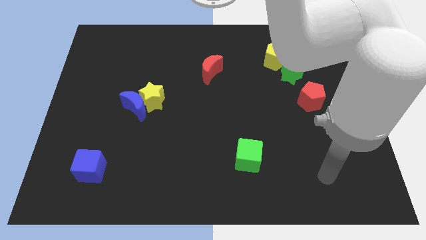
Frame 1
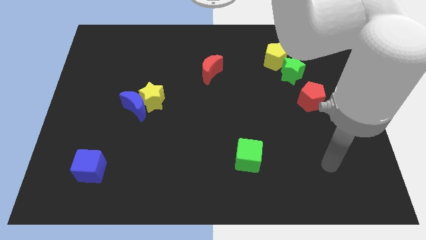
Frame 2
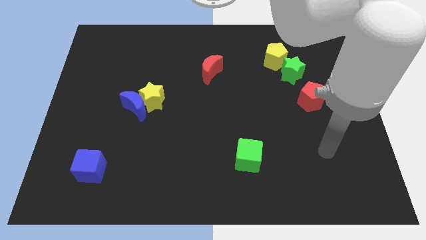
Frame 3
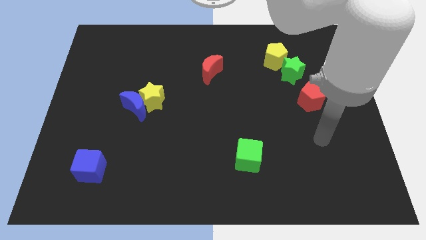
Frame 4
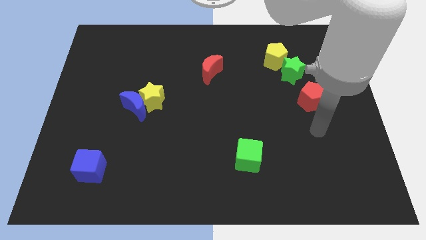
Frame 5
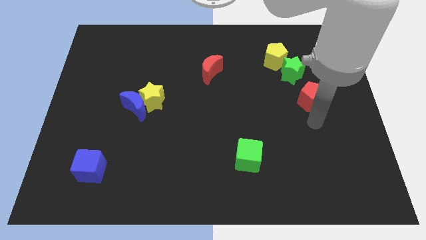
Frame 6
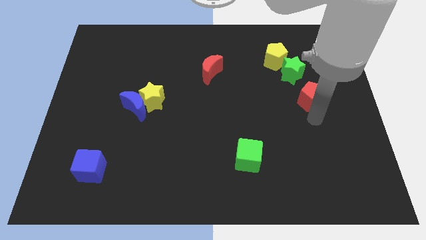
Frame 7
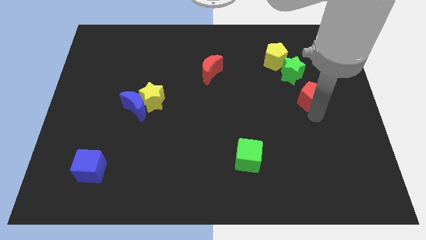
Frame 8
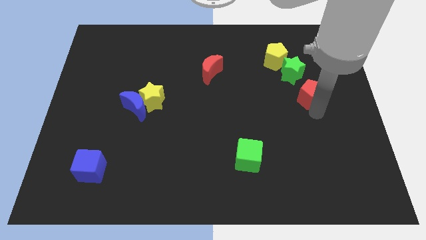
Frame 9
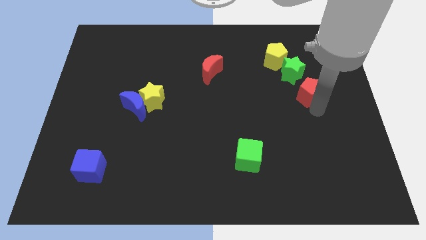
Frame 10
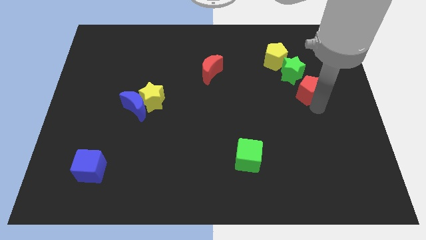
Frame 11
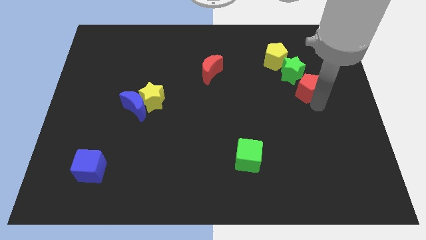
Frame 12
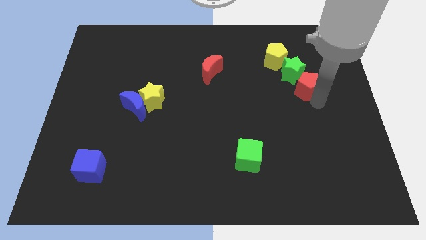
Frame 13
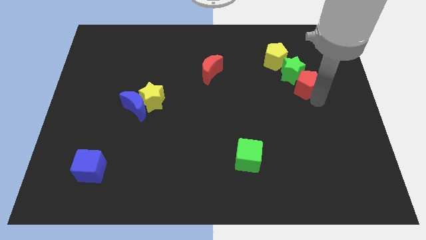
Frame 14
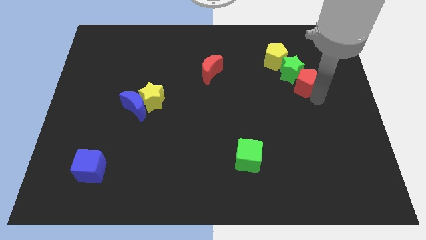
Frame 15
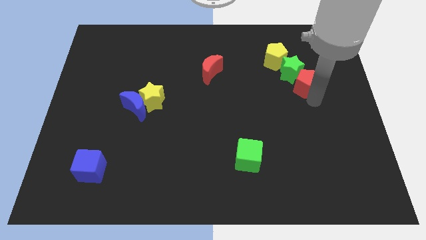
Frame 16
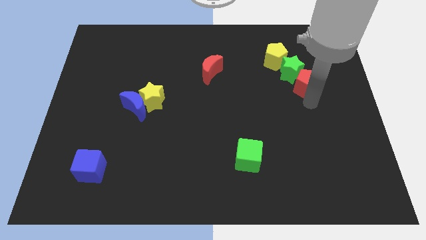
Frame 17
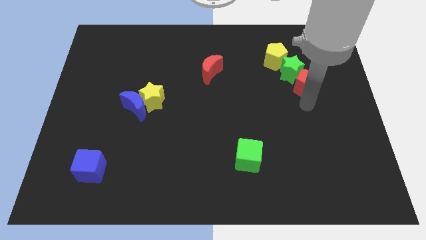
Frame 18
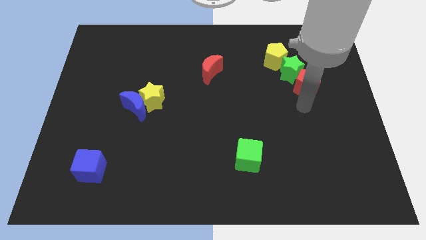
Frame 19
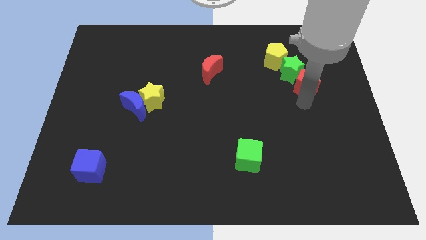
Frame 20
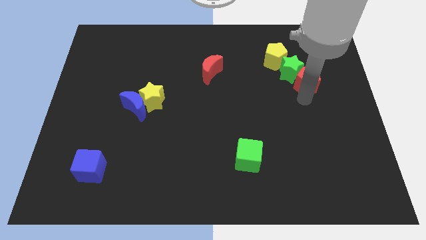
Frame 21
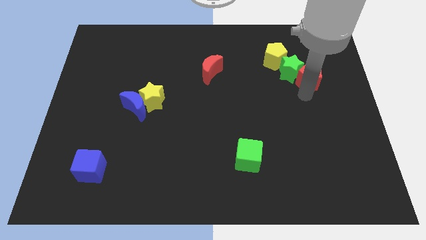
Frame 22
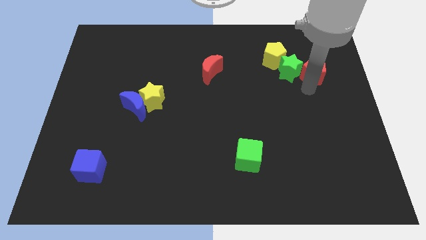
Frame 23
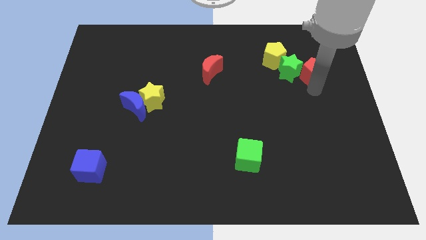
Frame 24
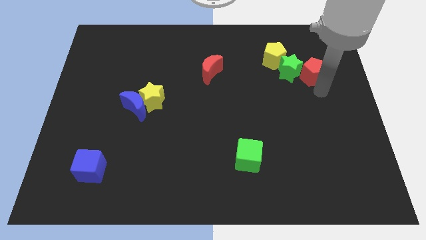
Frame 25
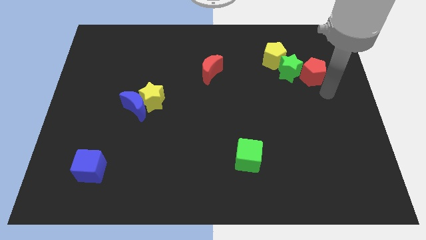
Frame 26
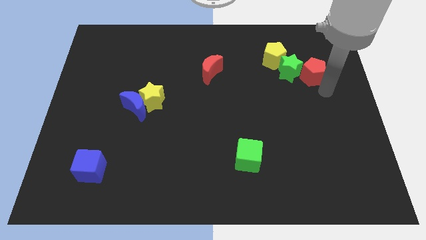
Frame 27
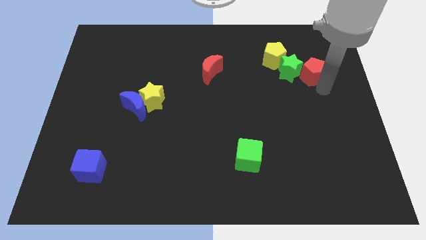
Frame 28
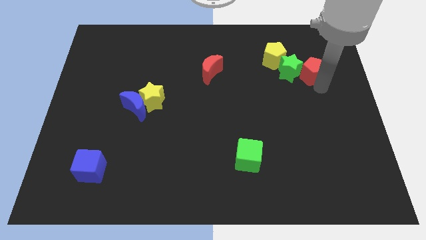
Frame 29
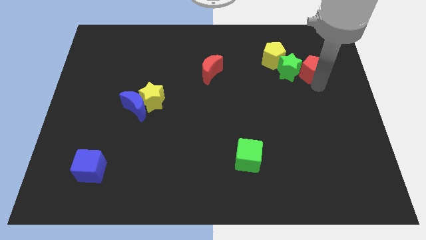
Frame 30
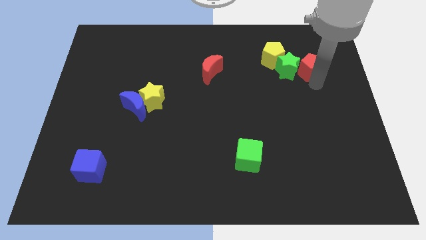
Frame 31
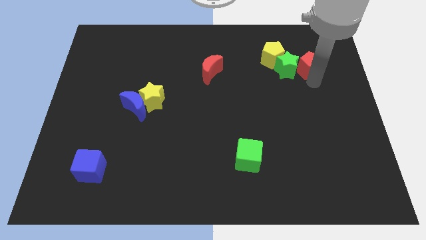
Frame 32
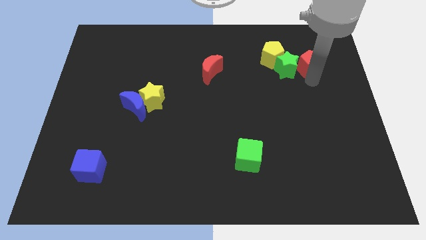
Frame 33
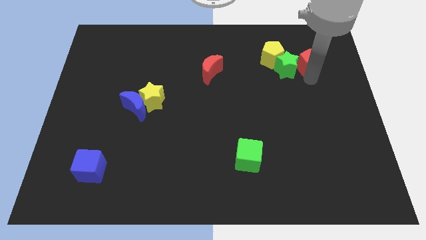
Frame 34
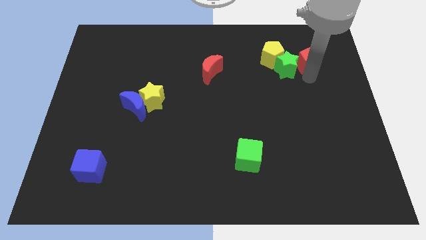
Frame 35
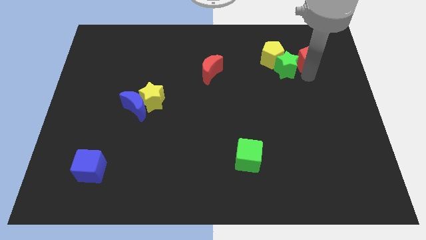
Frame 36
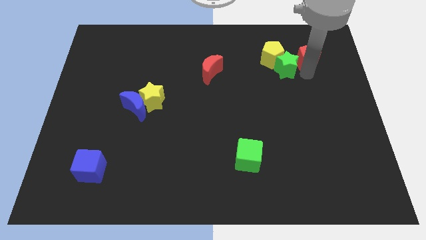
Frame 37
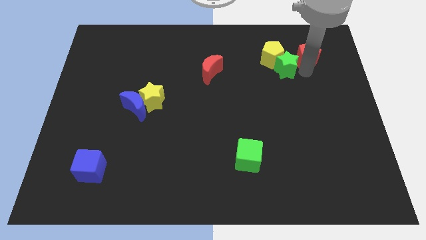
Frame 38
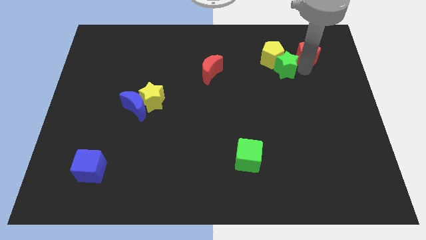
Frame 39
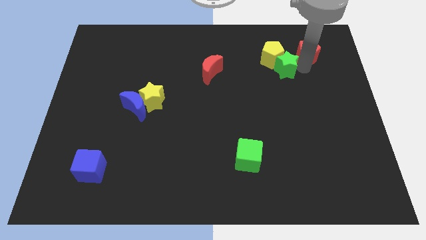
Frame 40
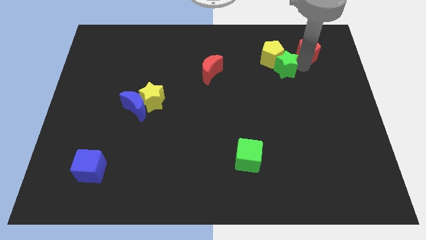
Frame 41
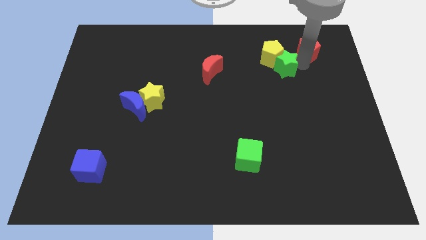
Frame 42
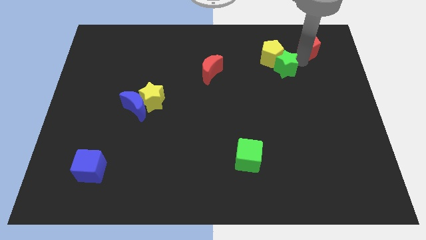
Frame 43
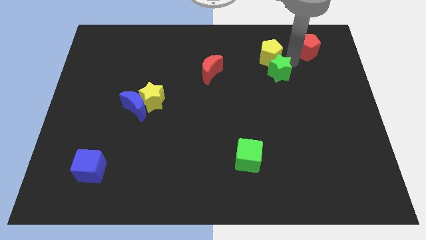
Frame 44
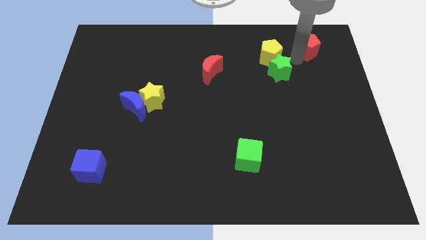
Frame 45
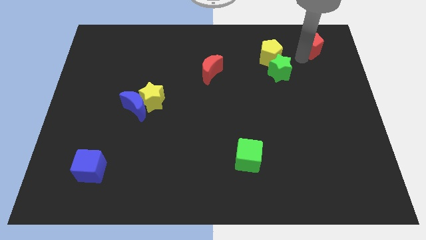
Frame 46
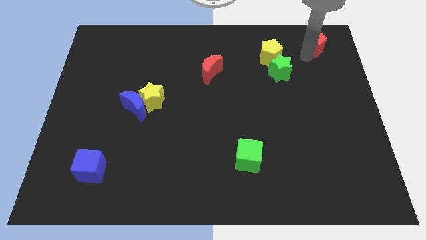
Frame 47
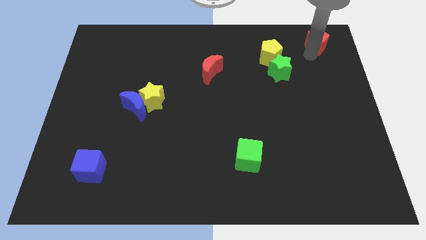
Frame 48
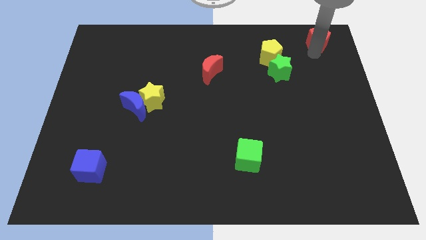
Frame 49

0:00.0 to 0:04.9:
slide the red pentagon to the upper right corner

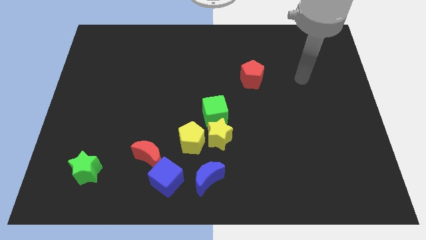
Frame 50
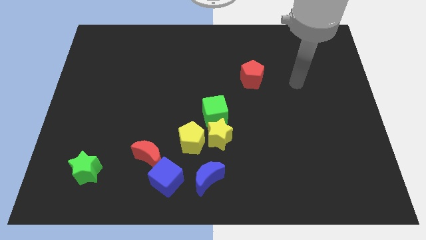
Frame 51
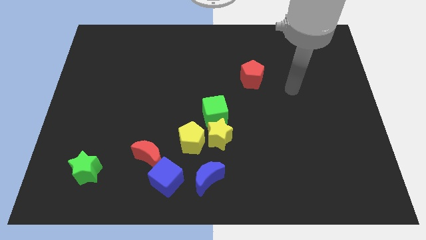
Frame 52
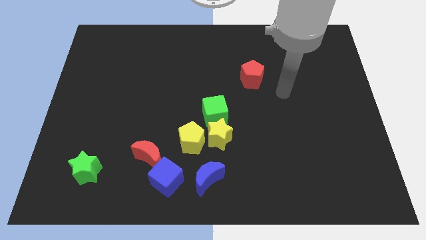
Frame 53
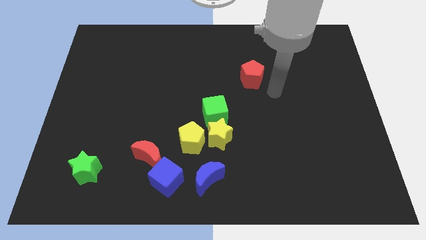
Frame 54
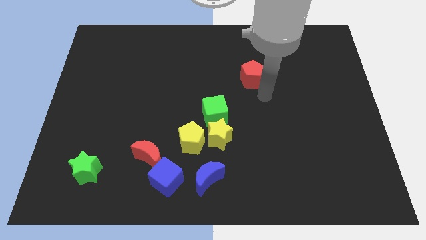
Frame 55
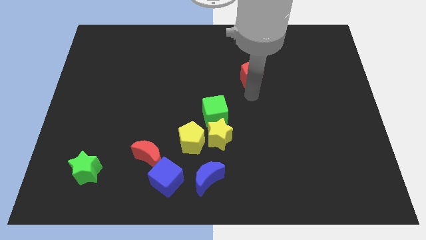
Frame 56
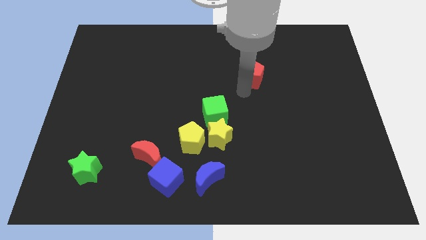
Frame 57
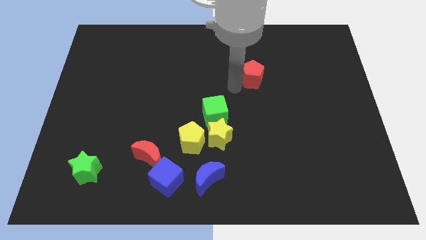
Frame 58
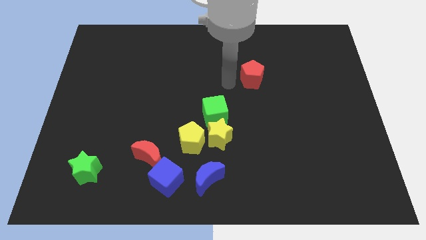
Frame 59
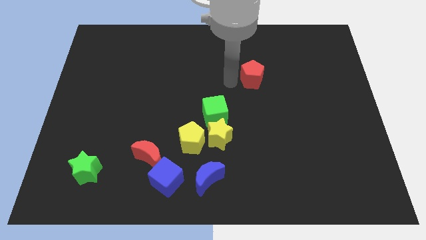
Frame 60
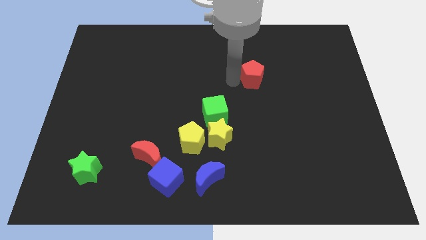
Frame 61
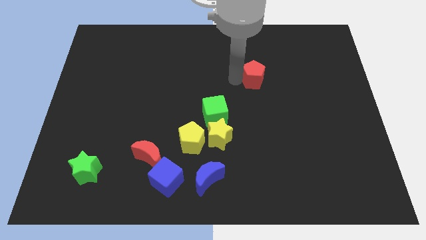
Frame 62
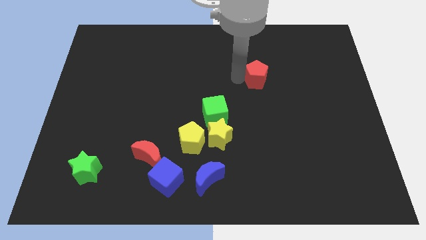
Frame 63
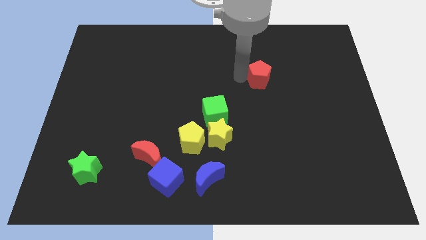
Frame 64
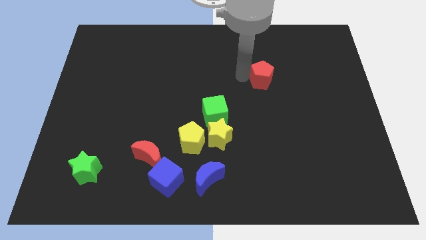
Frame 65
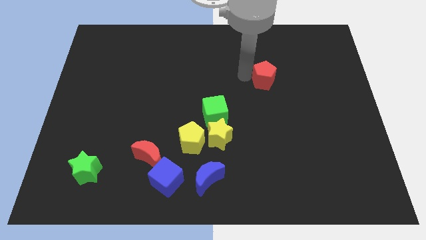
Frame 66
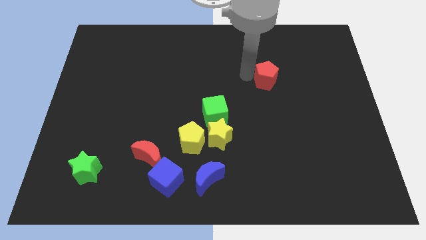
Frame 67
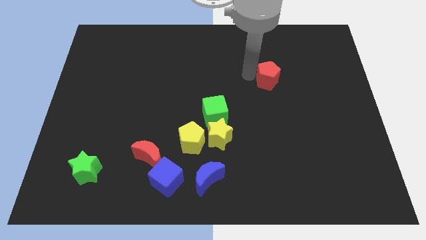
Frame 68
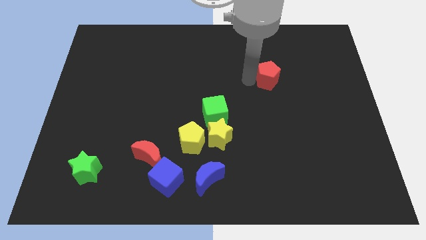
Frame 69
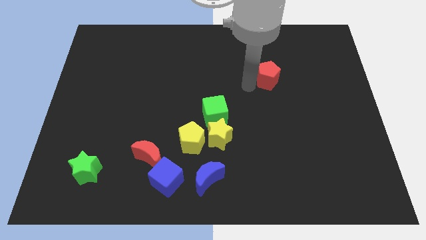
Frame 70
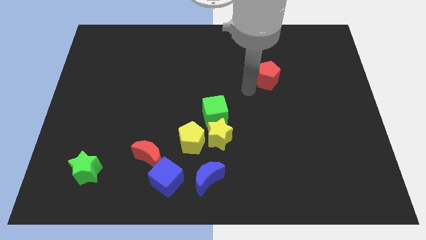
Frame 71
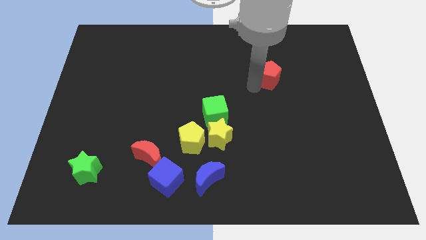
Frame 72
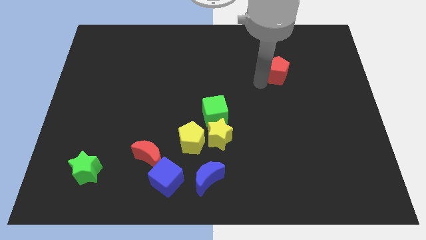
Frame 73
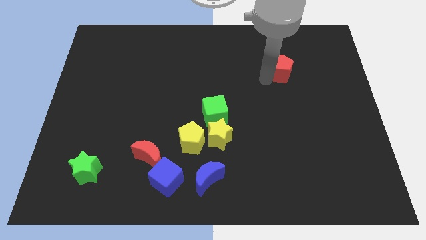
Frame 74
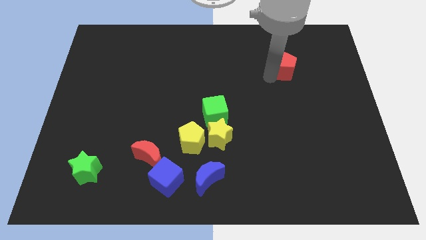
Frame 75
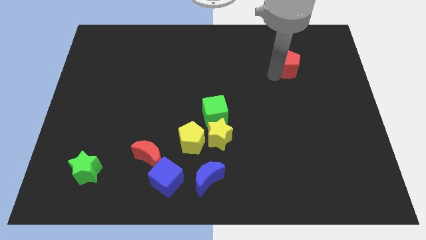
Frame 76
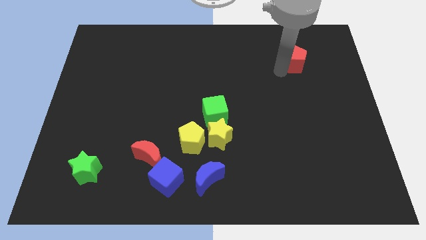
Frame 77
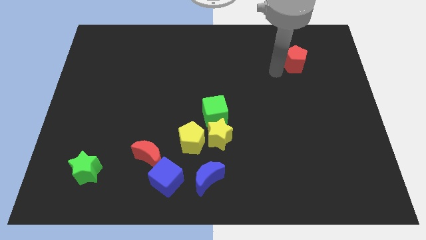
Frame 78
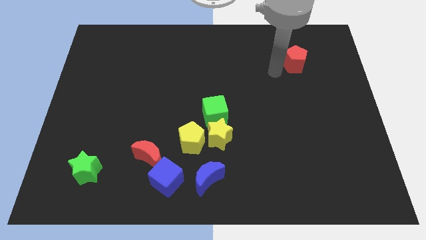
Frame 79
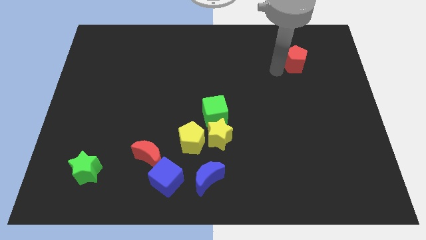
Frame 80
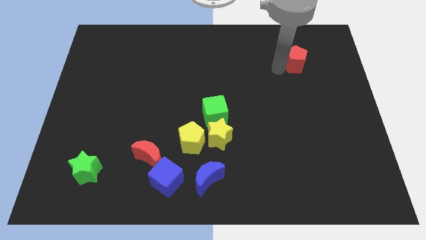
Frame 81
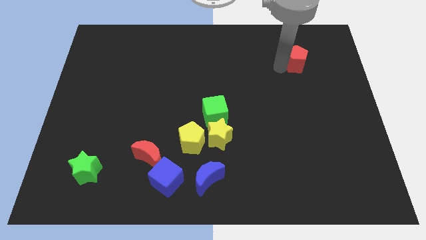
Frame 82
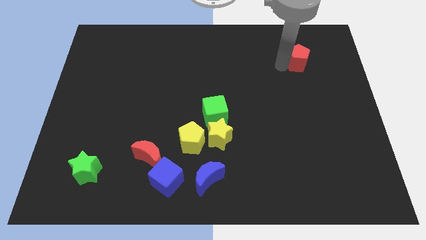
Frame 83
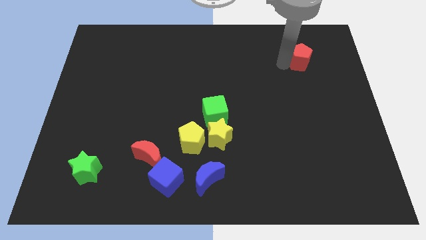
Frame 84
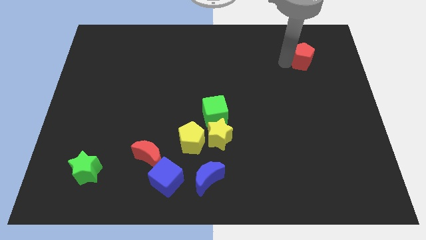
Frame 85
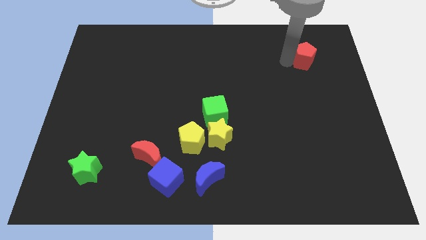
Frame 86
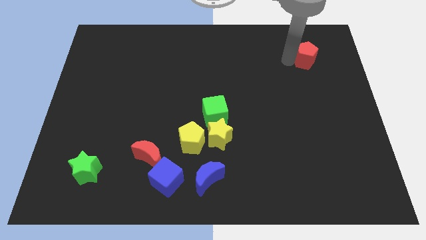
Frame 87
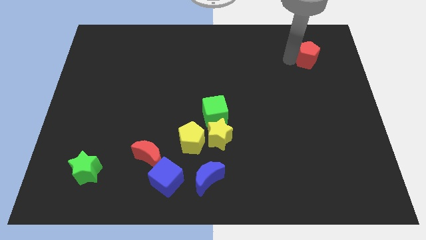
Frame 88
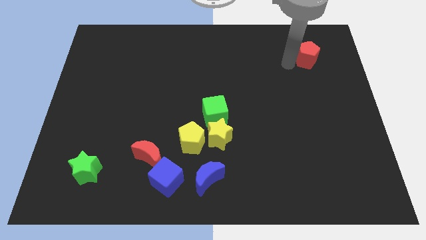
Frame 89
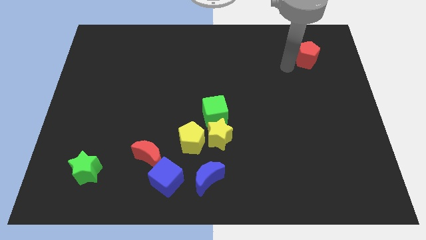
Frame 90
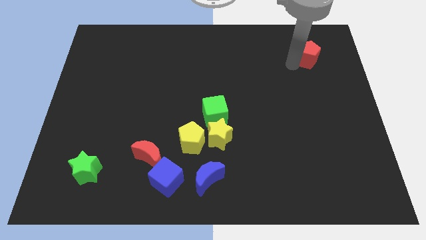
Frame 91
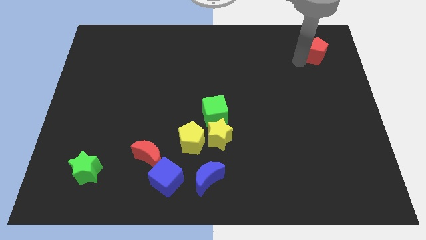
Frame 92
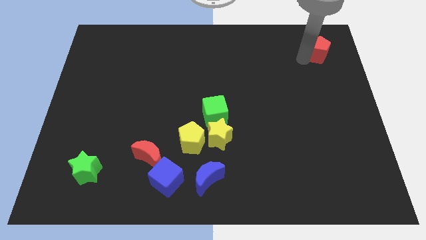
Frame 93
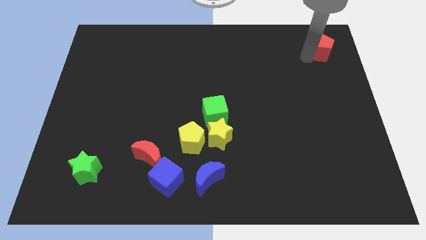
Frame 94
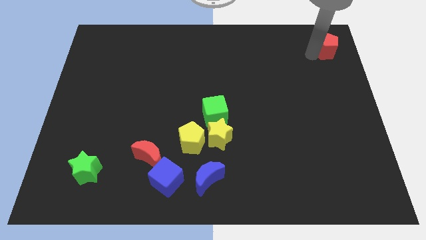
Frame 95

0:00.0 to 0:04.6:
push the red pentagon to the top right
